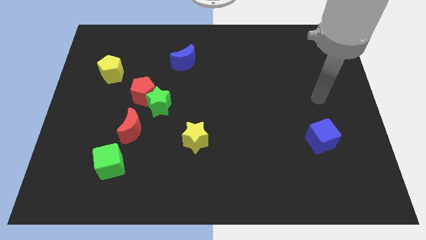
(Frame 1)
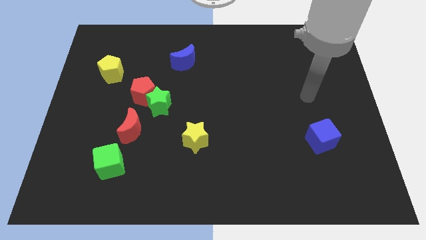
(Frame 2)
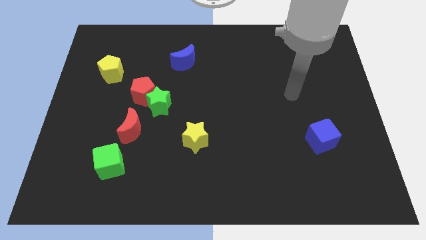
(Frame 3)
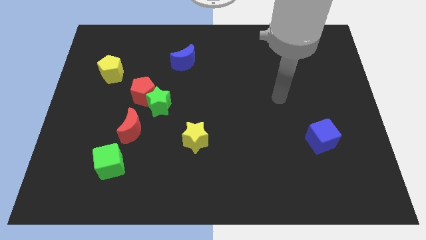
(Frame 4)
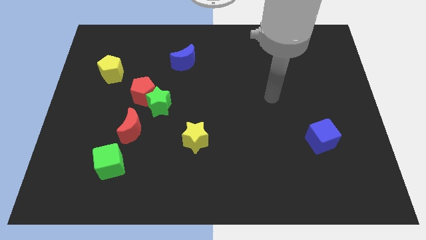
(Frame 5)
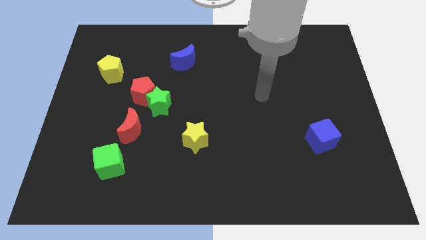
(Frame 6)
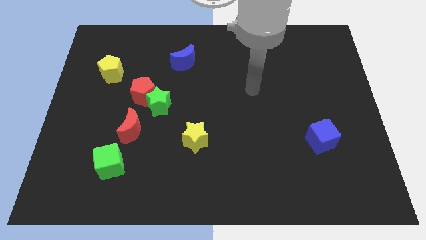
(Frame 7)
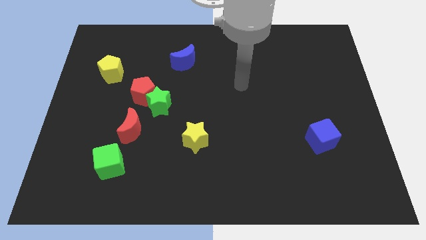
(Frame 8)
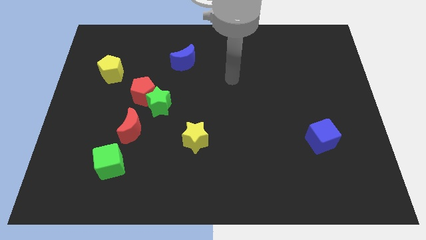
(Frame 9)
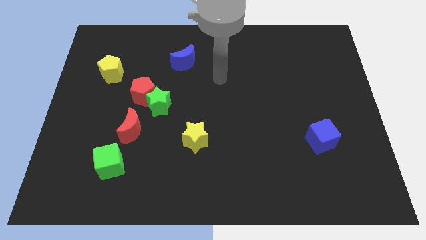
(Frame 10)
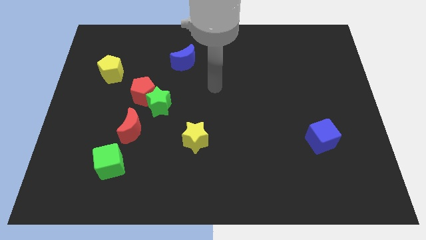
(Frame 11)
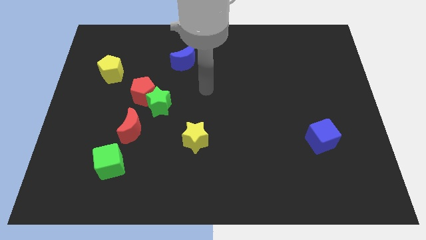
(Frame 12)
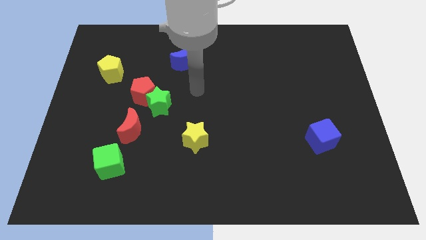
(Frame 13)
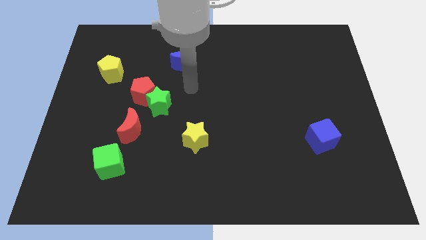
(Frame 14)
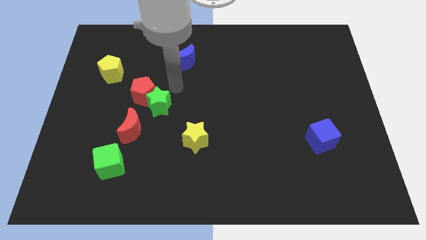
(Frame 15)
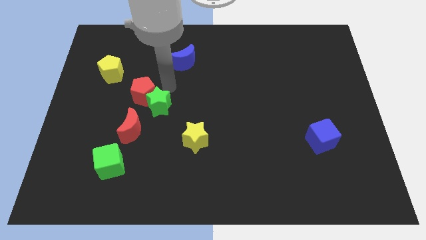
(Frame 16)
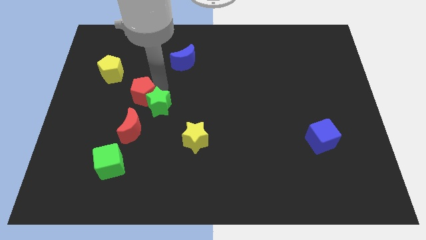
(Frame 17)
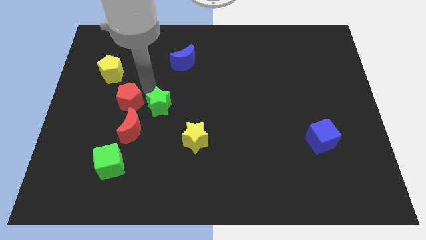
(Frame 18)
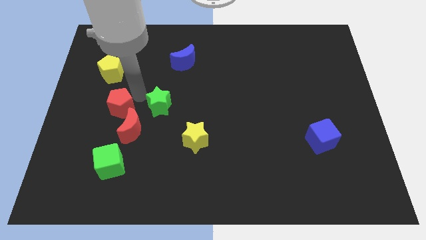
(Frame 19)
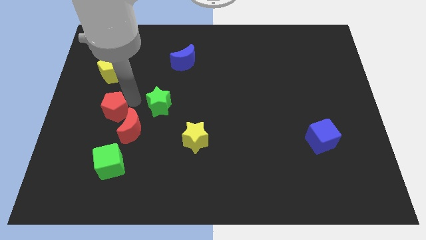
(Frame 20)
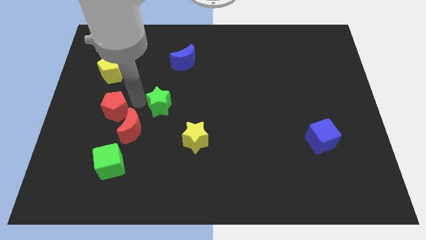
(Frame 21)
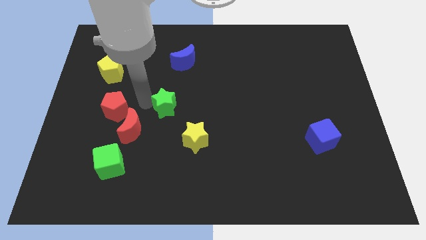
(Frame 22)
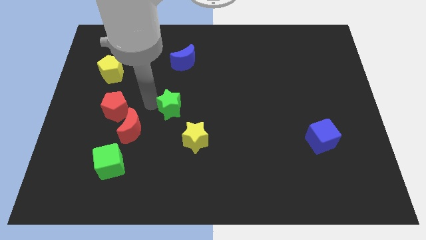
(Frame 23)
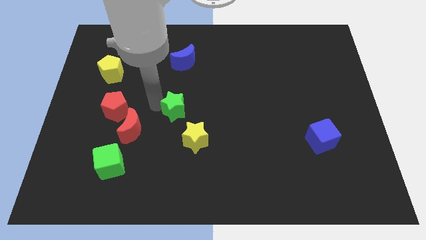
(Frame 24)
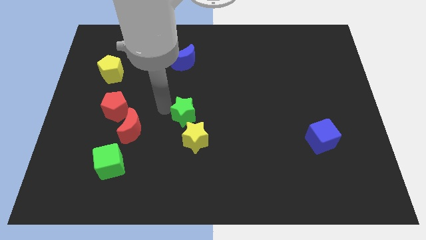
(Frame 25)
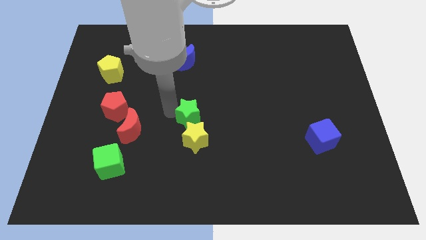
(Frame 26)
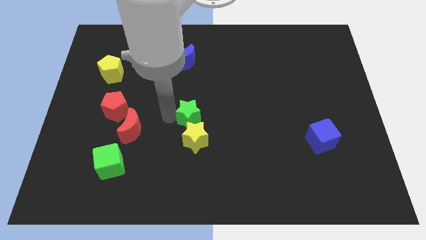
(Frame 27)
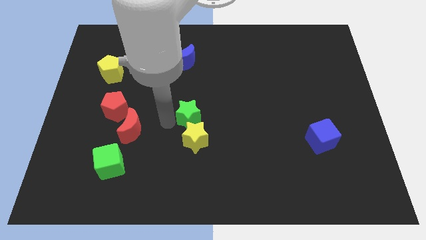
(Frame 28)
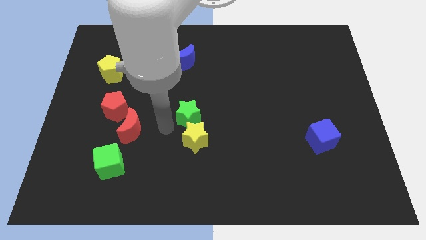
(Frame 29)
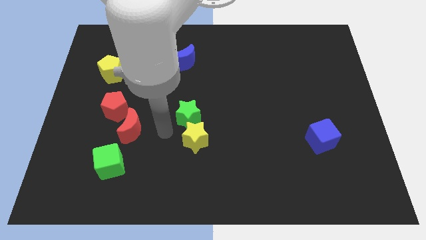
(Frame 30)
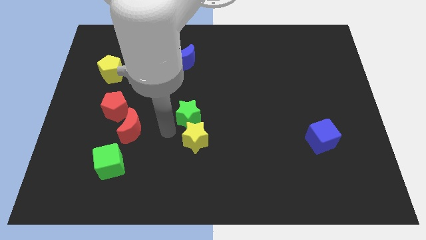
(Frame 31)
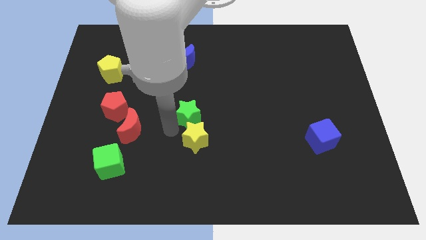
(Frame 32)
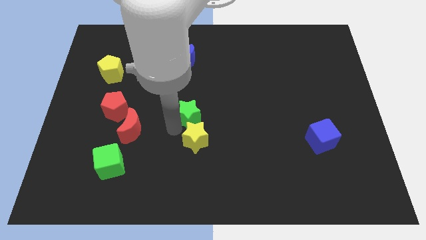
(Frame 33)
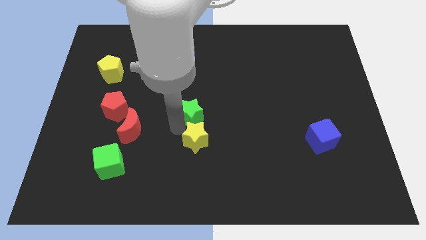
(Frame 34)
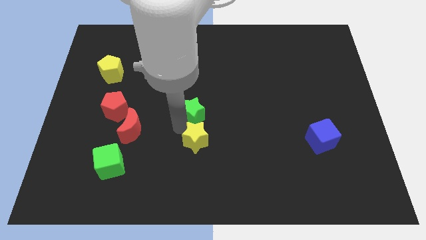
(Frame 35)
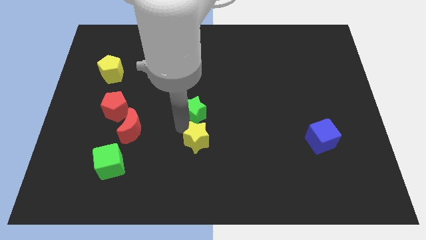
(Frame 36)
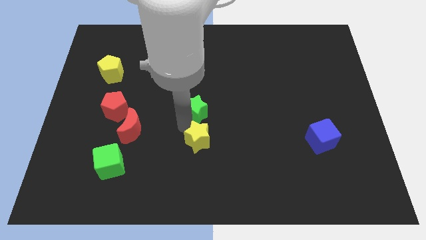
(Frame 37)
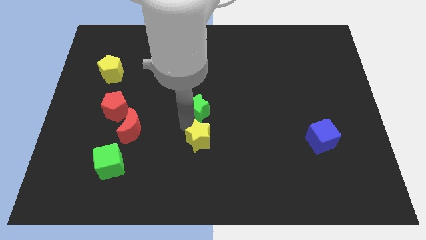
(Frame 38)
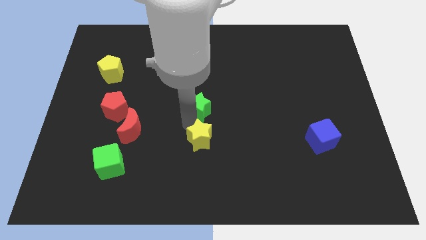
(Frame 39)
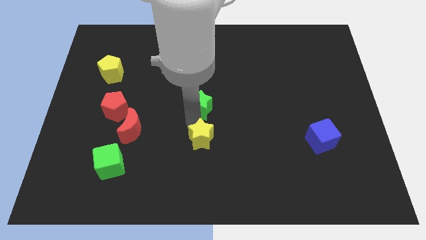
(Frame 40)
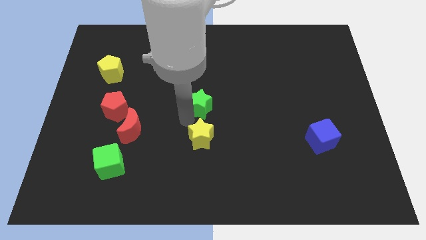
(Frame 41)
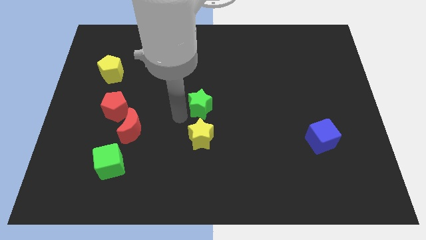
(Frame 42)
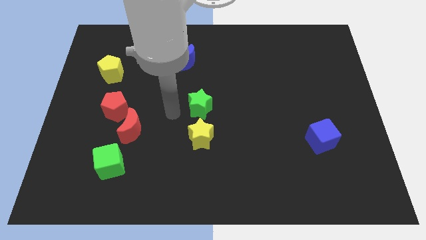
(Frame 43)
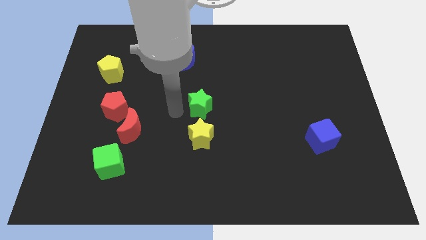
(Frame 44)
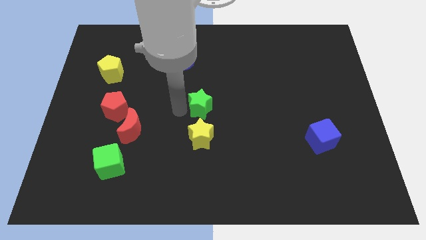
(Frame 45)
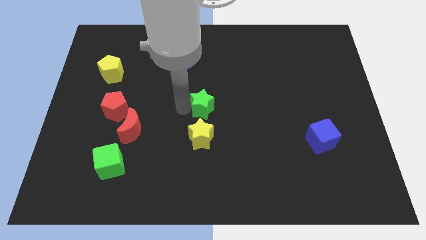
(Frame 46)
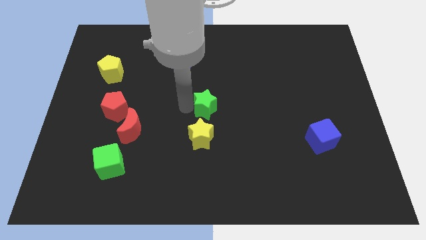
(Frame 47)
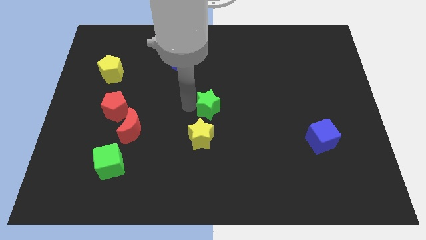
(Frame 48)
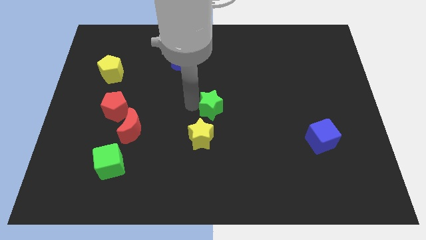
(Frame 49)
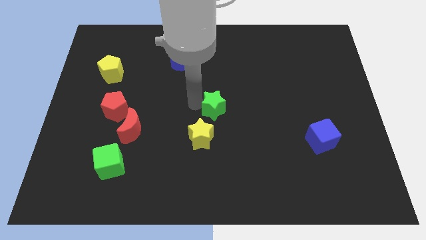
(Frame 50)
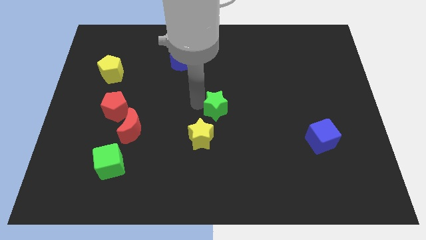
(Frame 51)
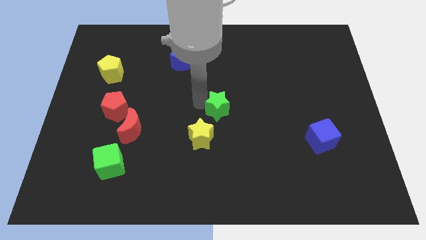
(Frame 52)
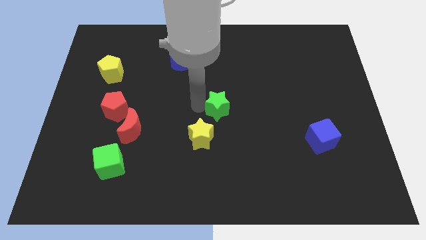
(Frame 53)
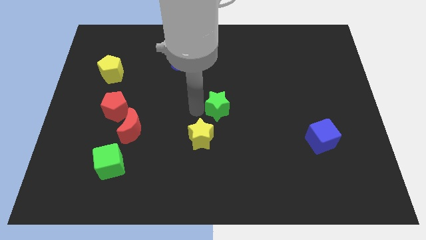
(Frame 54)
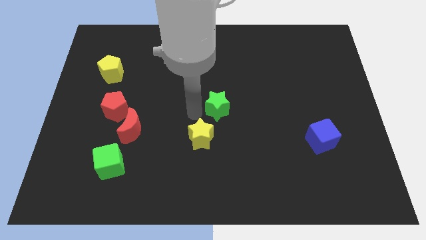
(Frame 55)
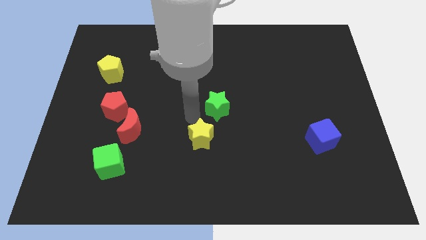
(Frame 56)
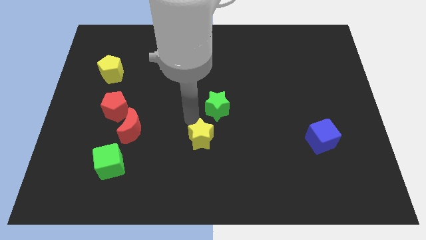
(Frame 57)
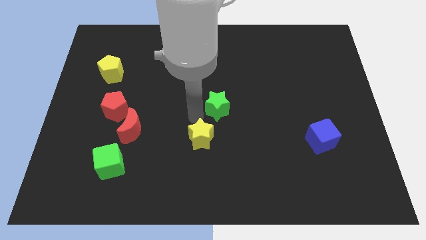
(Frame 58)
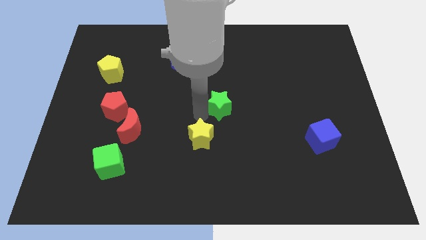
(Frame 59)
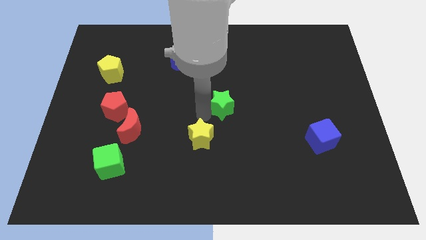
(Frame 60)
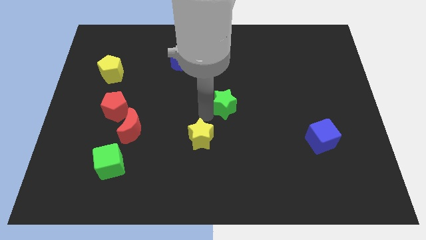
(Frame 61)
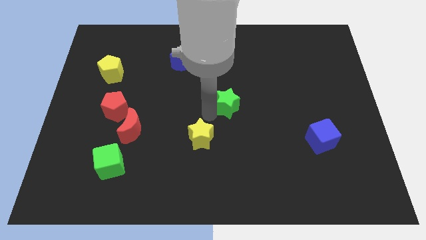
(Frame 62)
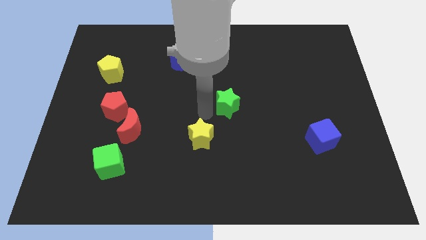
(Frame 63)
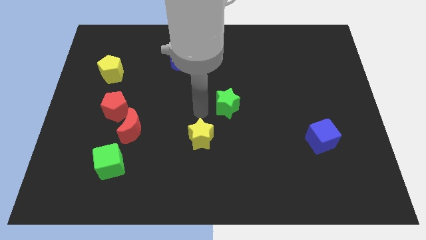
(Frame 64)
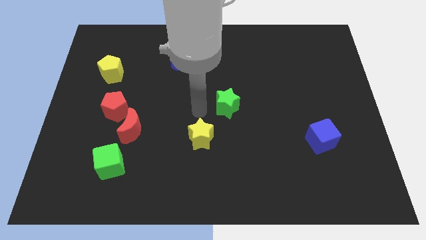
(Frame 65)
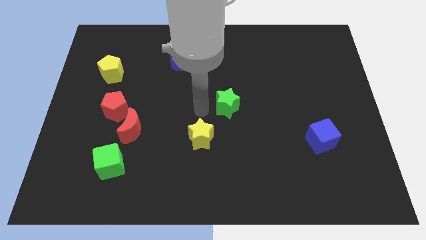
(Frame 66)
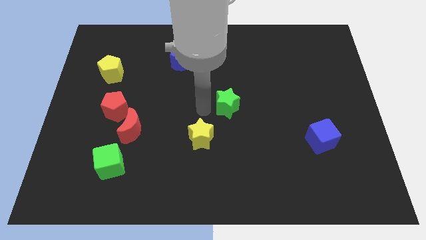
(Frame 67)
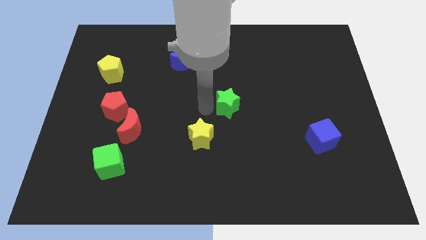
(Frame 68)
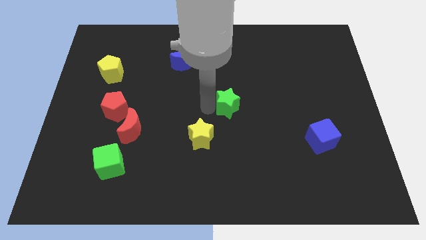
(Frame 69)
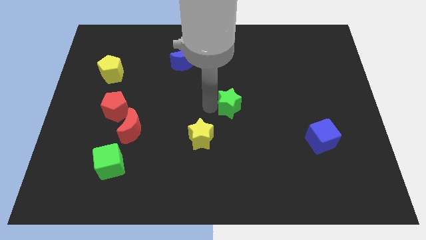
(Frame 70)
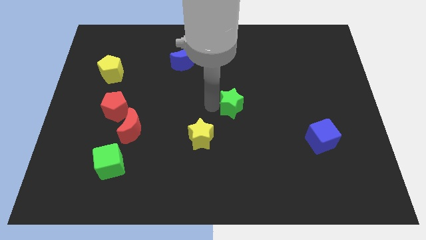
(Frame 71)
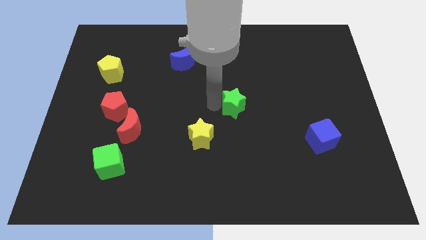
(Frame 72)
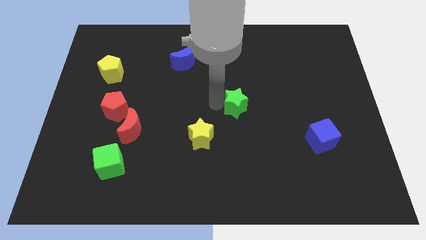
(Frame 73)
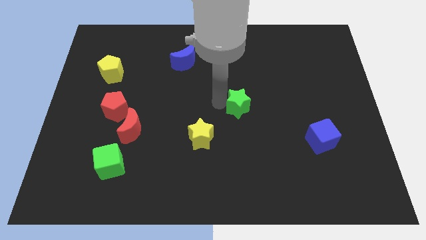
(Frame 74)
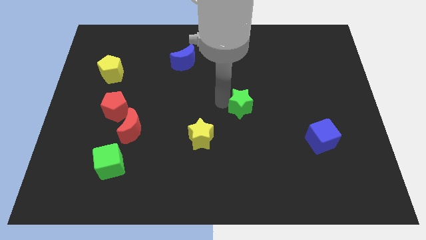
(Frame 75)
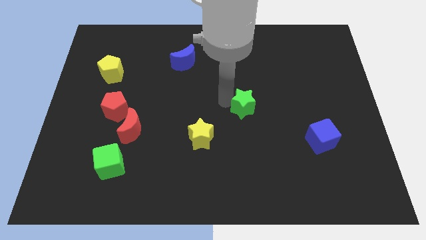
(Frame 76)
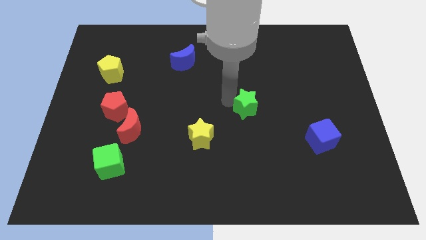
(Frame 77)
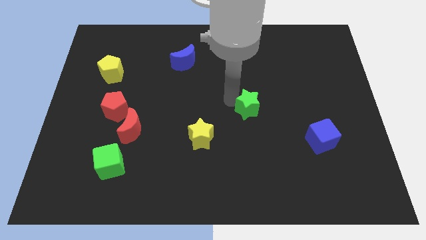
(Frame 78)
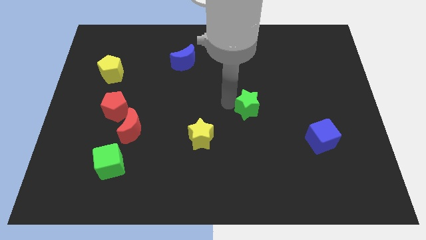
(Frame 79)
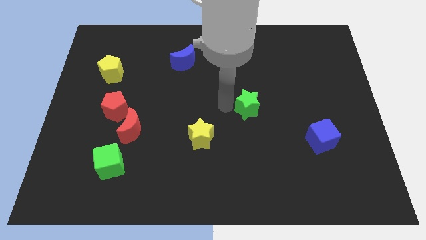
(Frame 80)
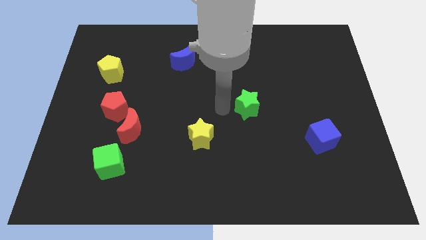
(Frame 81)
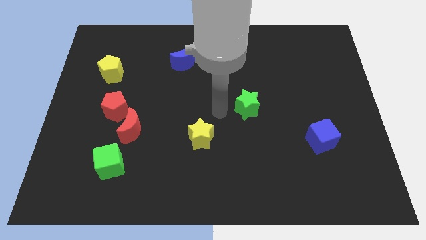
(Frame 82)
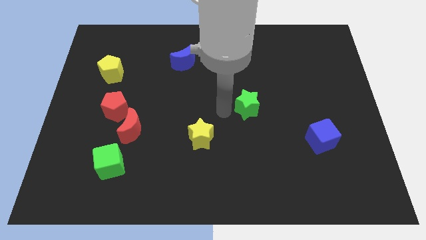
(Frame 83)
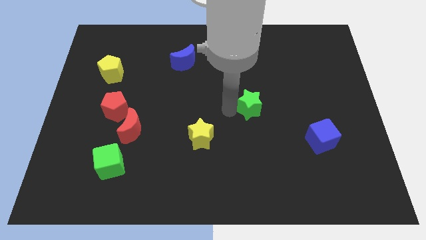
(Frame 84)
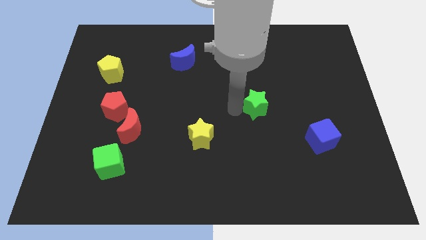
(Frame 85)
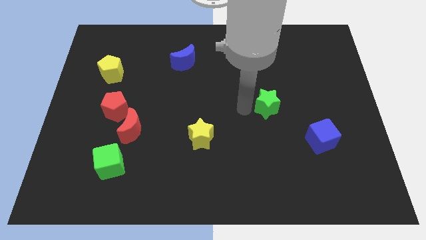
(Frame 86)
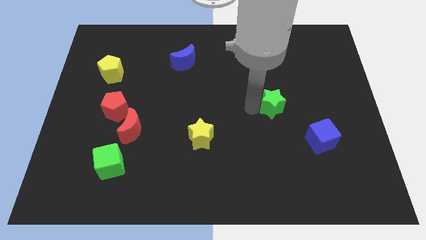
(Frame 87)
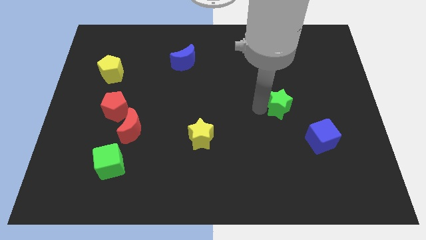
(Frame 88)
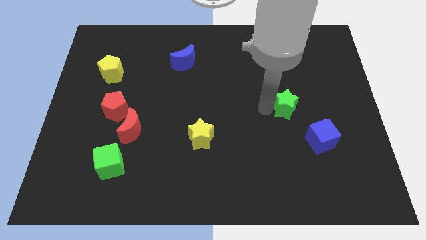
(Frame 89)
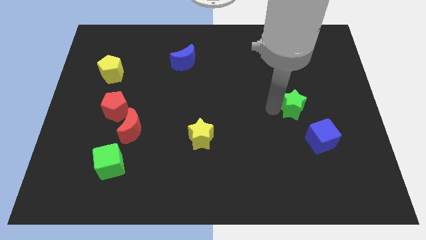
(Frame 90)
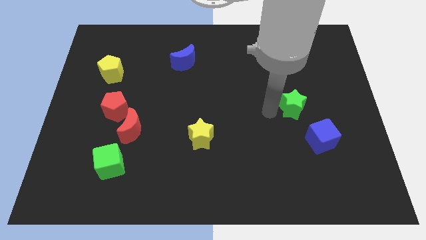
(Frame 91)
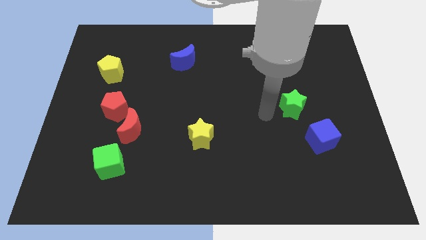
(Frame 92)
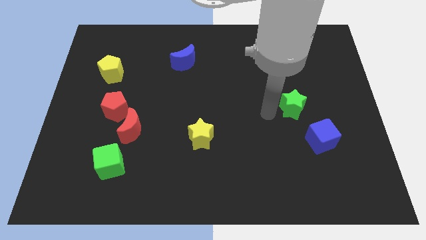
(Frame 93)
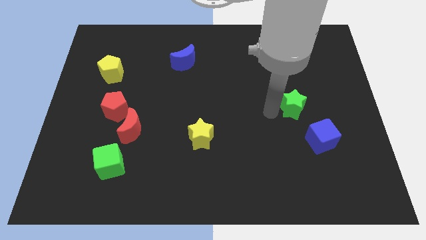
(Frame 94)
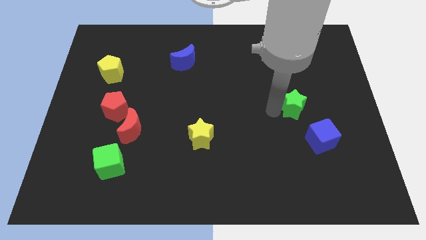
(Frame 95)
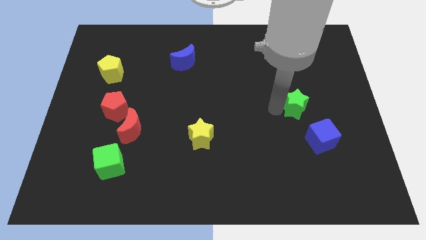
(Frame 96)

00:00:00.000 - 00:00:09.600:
slide the green star to the top side of the blue cube
